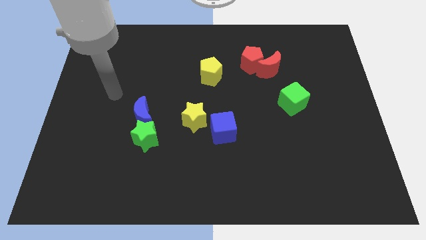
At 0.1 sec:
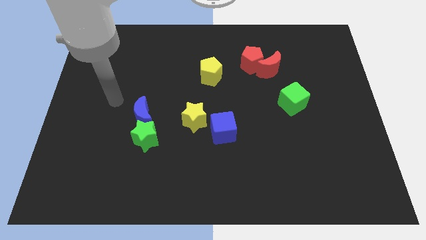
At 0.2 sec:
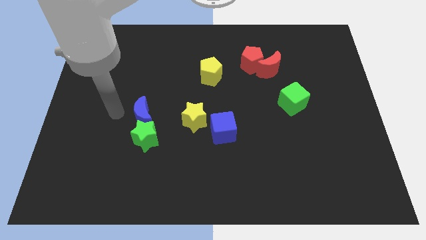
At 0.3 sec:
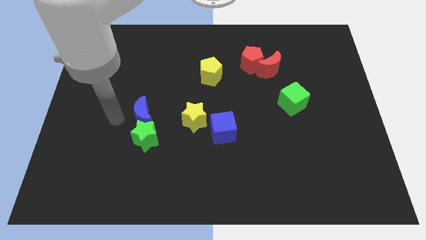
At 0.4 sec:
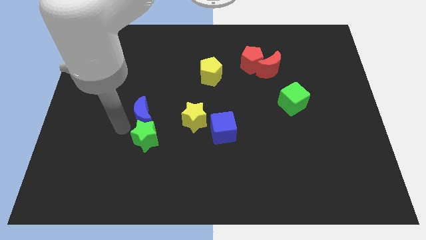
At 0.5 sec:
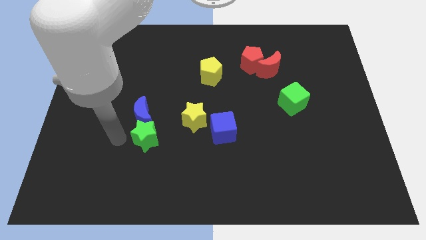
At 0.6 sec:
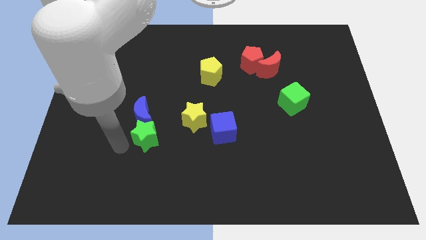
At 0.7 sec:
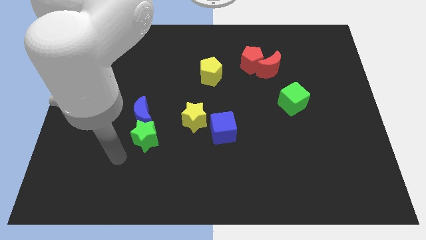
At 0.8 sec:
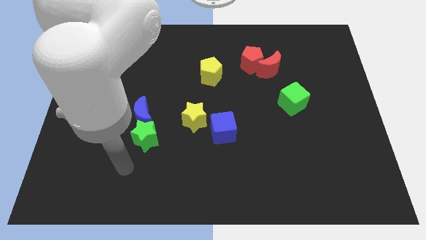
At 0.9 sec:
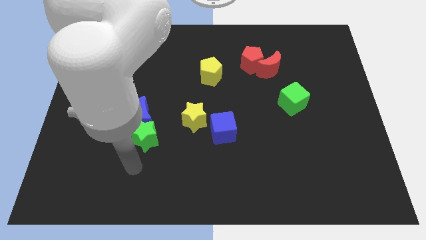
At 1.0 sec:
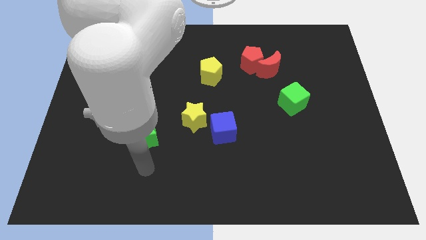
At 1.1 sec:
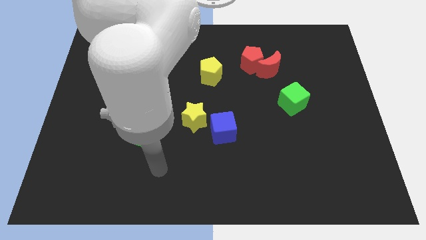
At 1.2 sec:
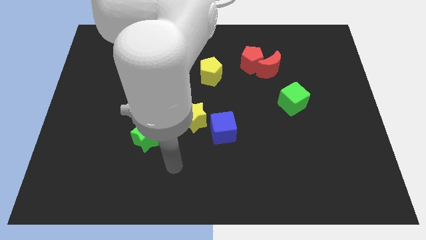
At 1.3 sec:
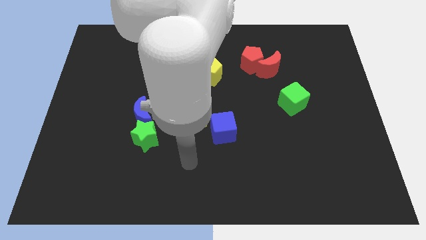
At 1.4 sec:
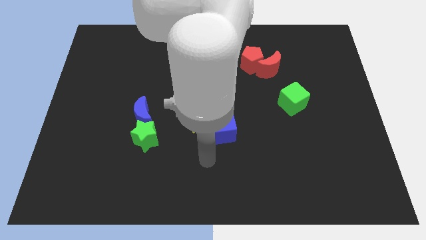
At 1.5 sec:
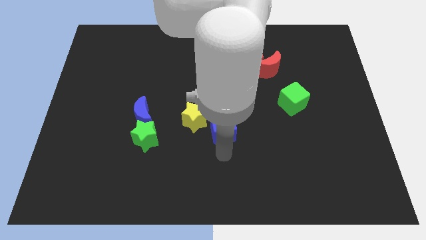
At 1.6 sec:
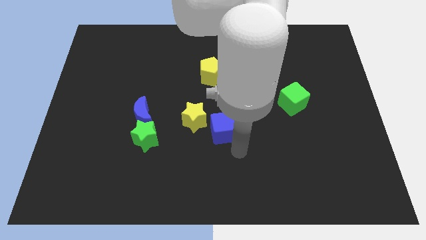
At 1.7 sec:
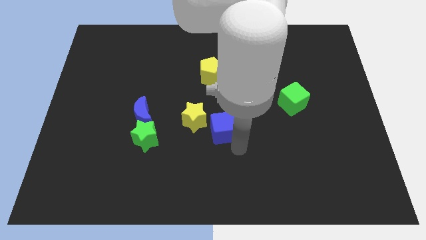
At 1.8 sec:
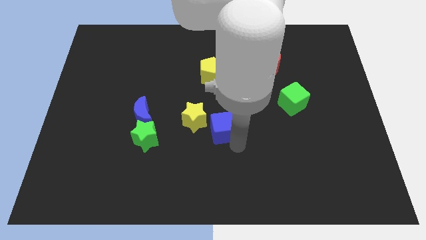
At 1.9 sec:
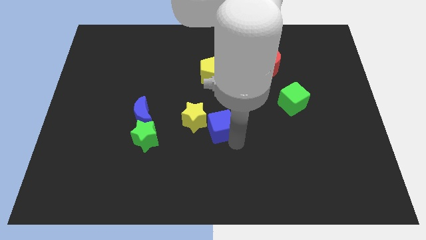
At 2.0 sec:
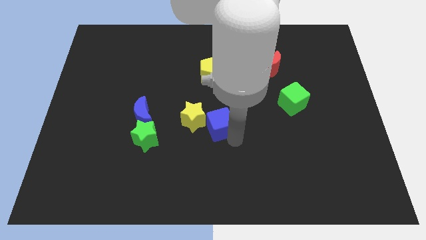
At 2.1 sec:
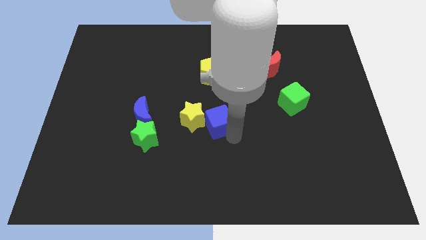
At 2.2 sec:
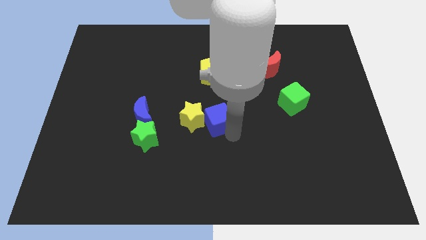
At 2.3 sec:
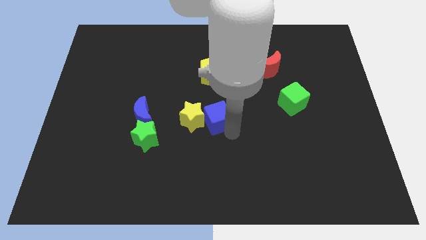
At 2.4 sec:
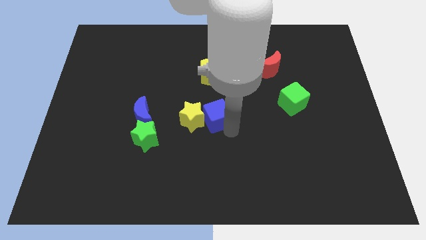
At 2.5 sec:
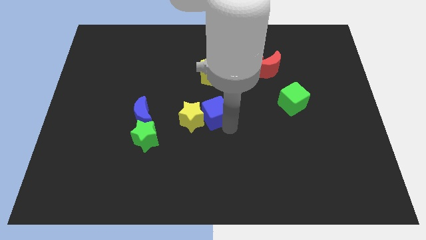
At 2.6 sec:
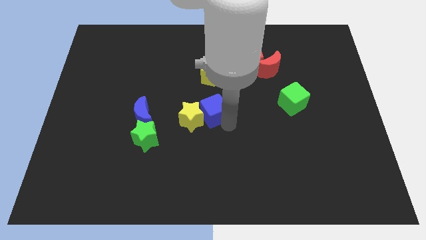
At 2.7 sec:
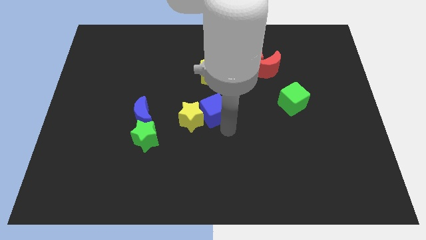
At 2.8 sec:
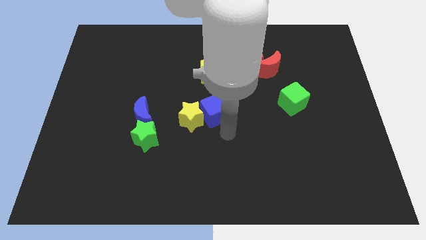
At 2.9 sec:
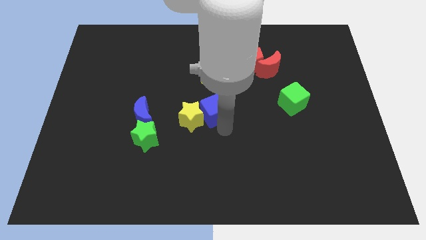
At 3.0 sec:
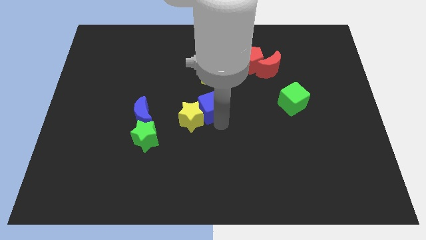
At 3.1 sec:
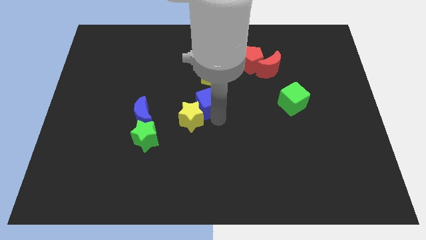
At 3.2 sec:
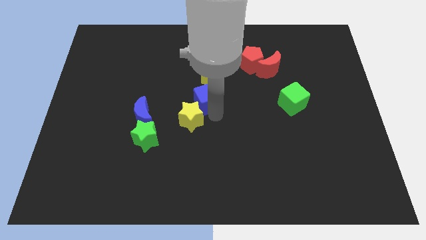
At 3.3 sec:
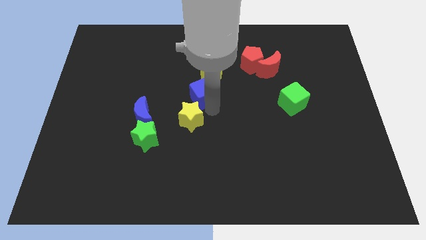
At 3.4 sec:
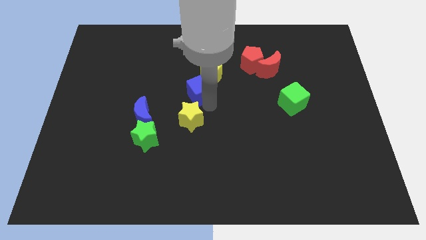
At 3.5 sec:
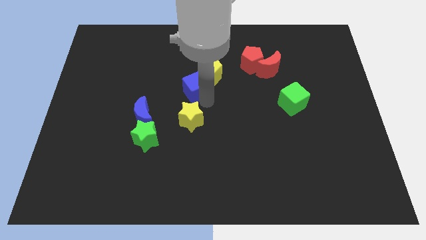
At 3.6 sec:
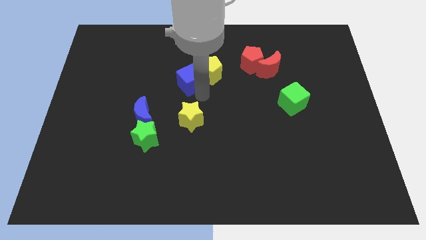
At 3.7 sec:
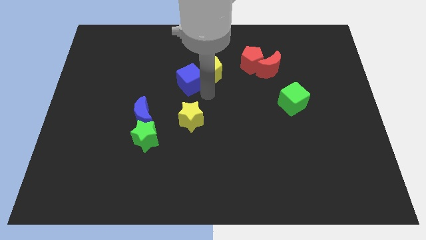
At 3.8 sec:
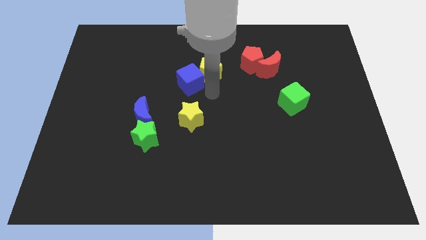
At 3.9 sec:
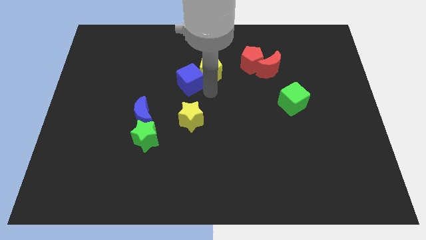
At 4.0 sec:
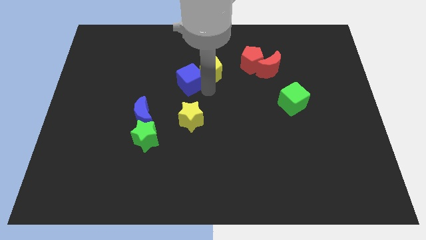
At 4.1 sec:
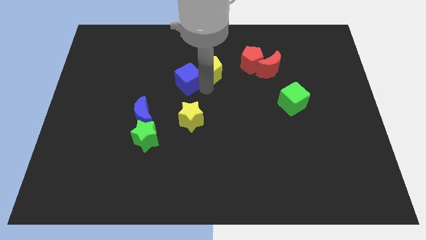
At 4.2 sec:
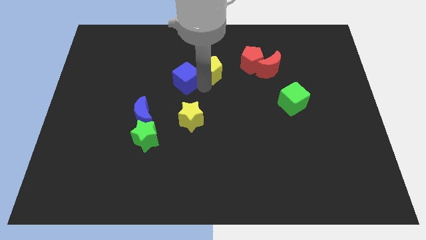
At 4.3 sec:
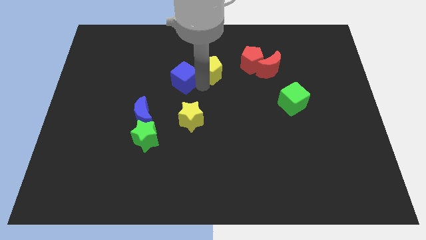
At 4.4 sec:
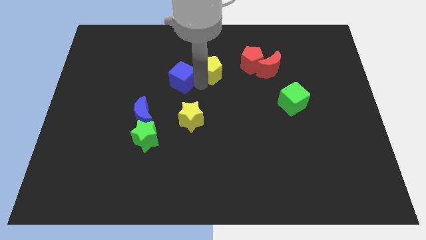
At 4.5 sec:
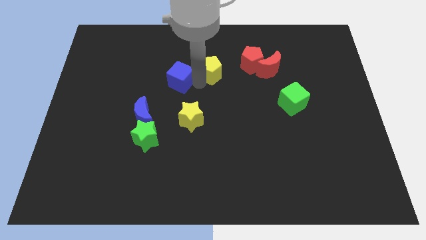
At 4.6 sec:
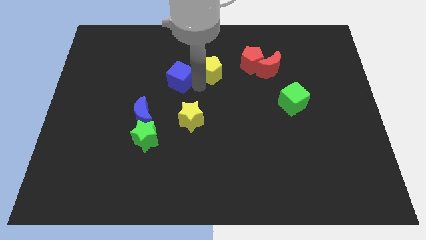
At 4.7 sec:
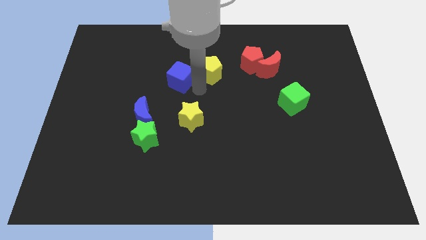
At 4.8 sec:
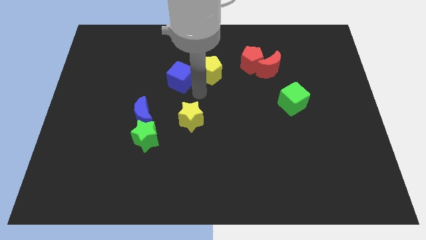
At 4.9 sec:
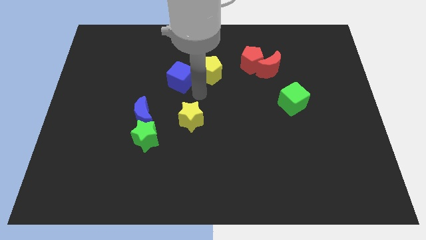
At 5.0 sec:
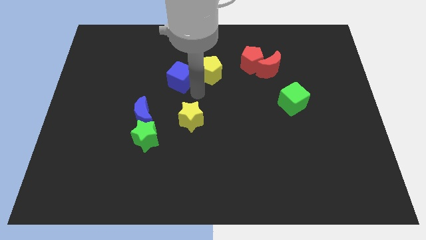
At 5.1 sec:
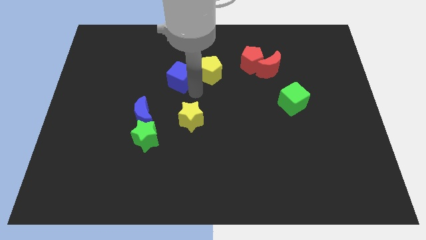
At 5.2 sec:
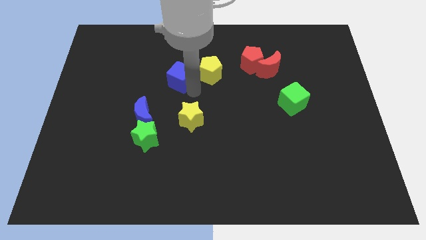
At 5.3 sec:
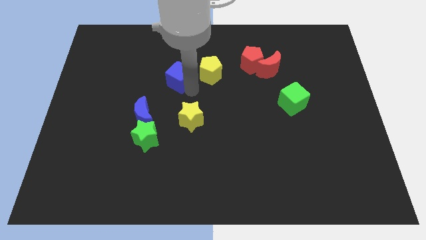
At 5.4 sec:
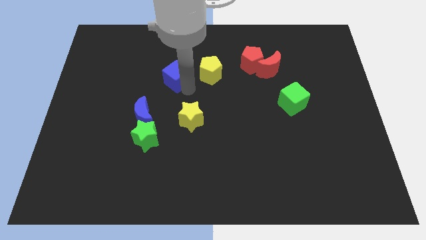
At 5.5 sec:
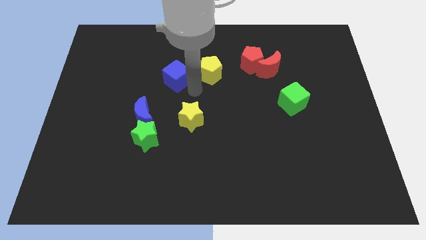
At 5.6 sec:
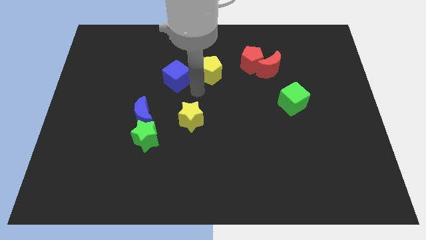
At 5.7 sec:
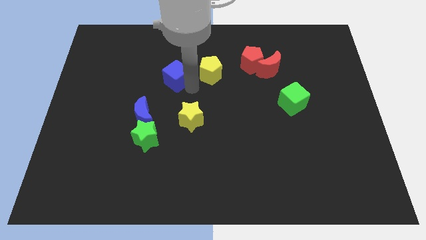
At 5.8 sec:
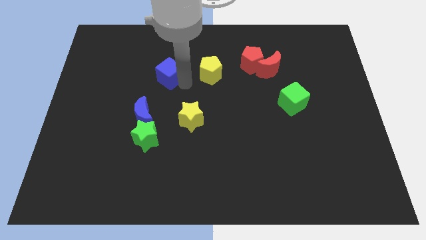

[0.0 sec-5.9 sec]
slide the blue cube diagonally upwards and to the left

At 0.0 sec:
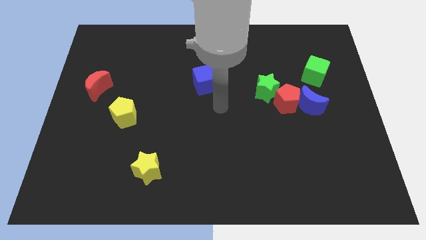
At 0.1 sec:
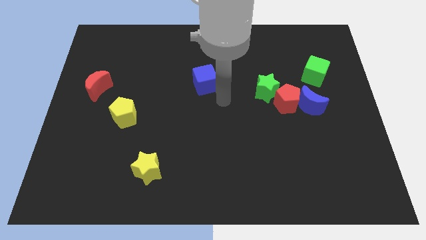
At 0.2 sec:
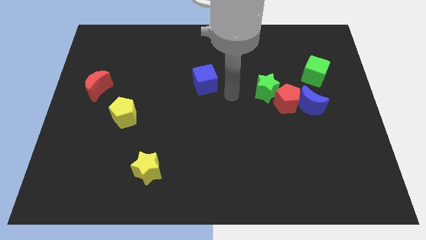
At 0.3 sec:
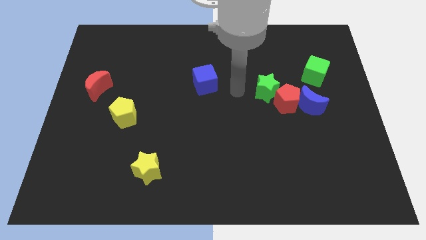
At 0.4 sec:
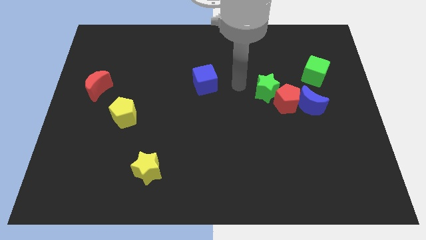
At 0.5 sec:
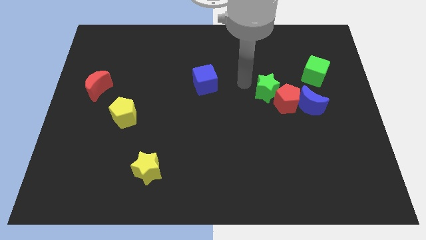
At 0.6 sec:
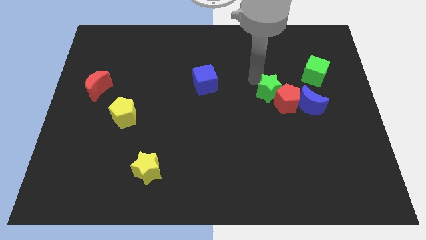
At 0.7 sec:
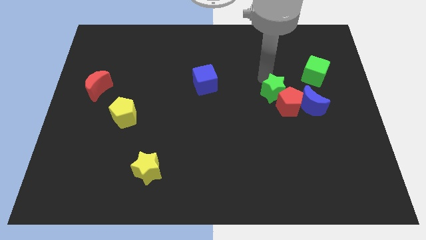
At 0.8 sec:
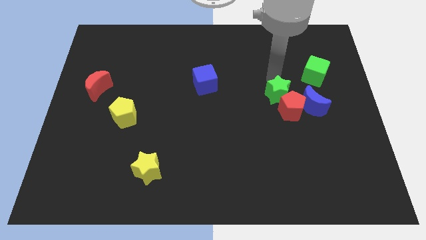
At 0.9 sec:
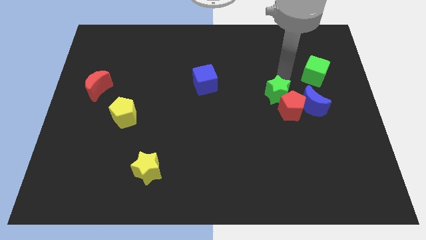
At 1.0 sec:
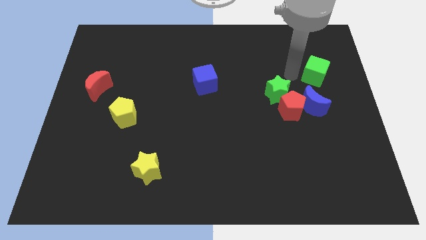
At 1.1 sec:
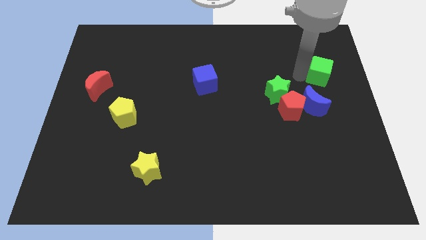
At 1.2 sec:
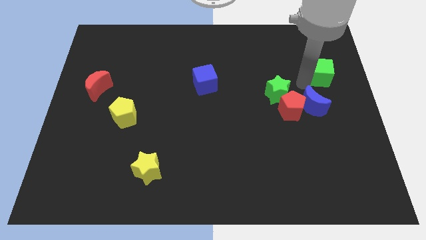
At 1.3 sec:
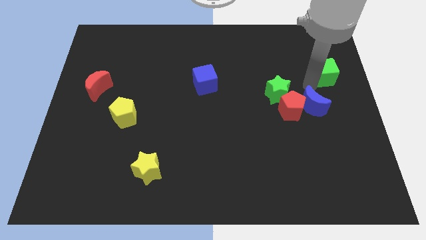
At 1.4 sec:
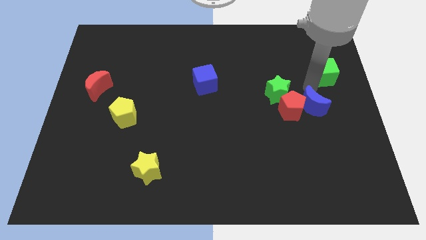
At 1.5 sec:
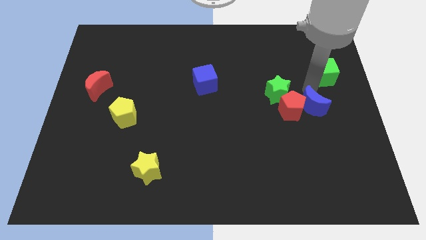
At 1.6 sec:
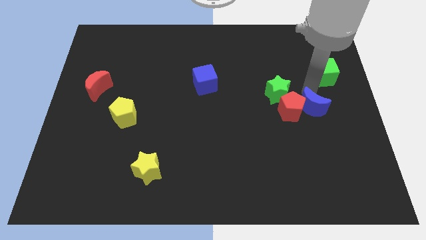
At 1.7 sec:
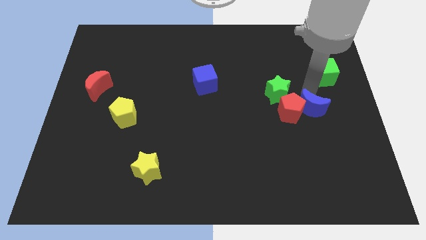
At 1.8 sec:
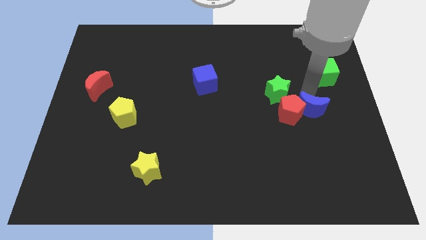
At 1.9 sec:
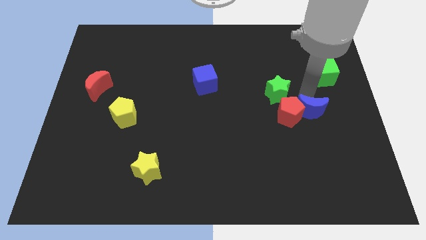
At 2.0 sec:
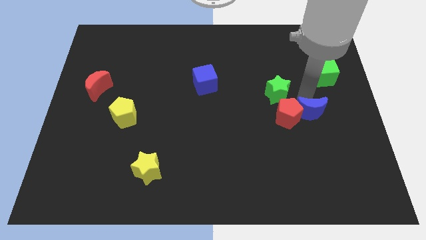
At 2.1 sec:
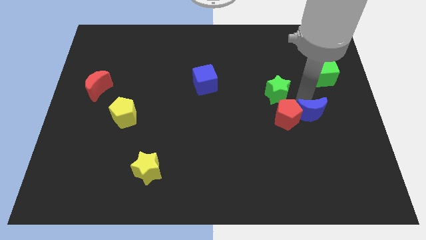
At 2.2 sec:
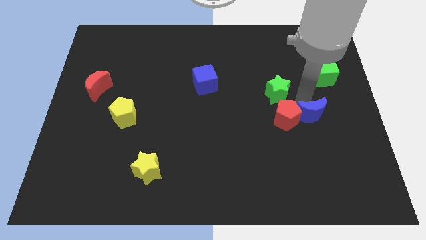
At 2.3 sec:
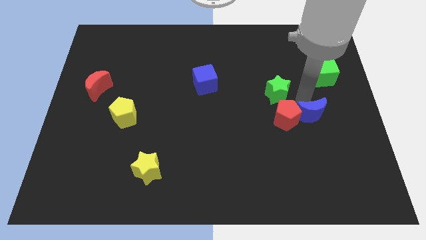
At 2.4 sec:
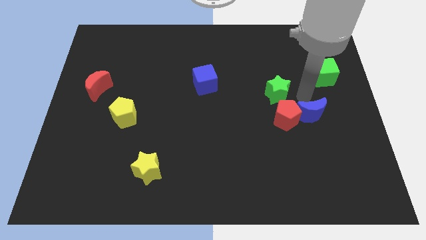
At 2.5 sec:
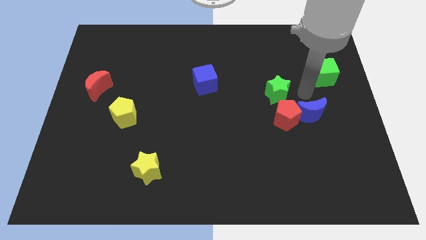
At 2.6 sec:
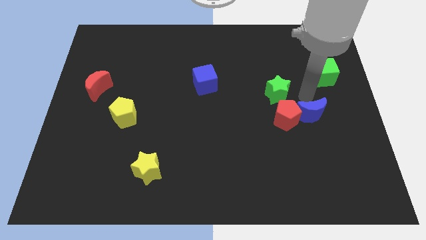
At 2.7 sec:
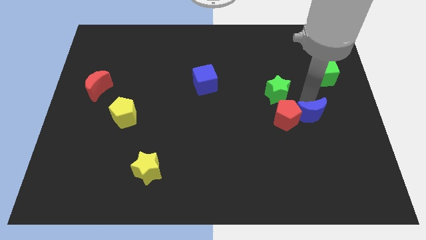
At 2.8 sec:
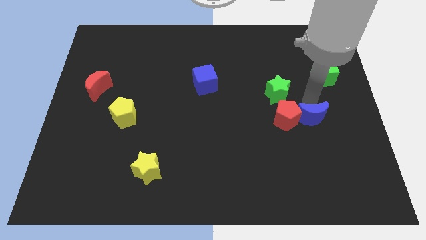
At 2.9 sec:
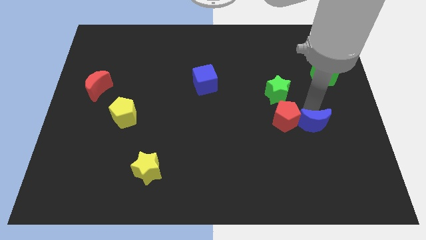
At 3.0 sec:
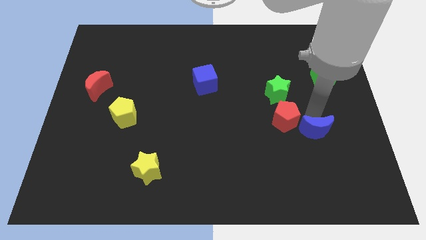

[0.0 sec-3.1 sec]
slightly move the blue moon down
